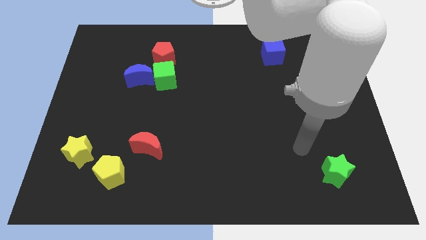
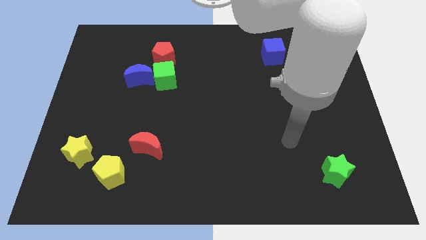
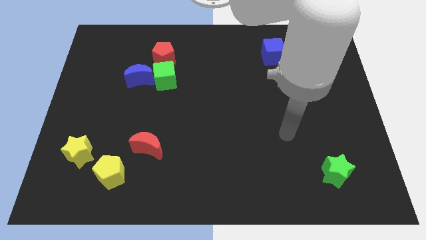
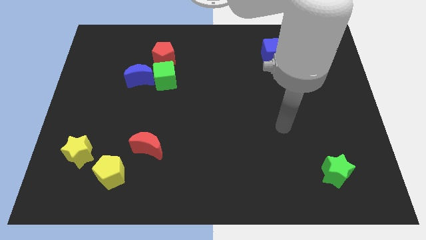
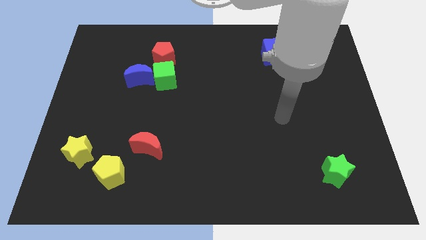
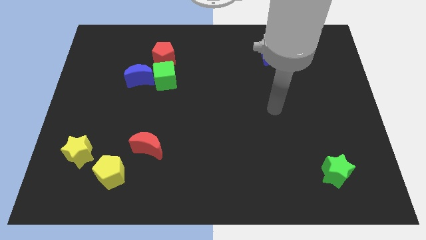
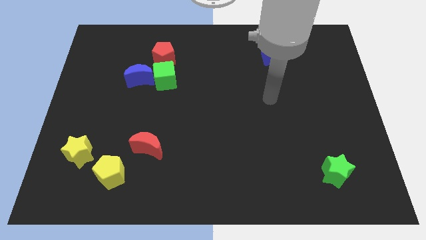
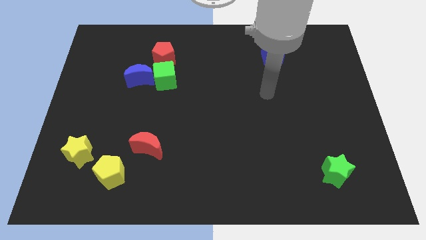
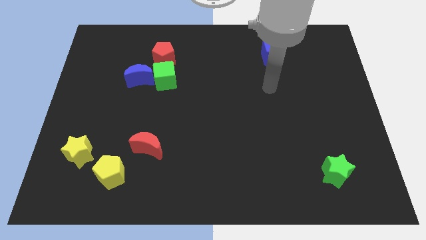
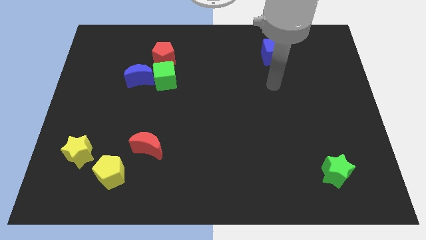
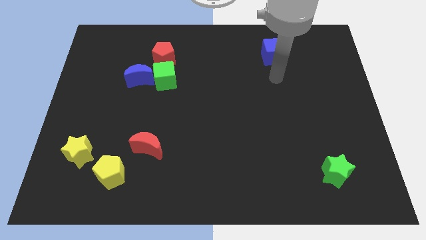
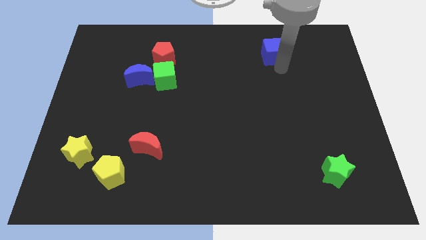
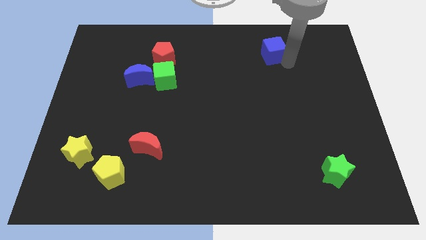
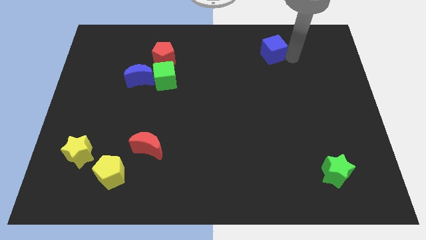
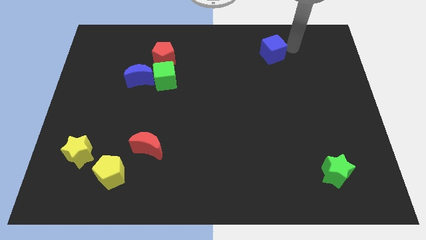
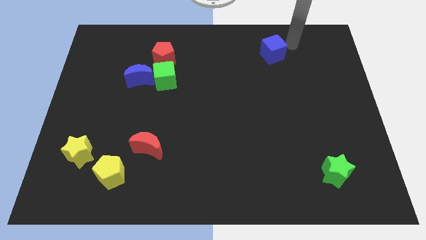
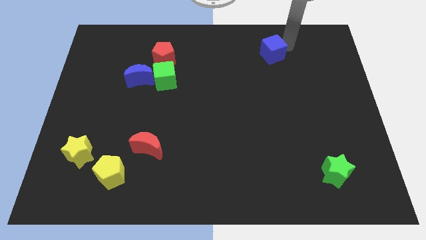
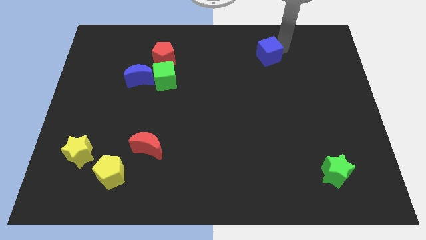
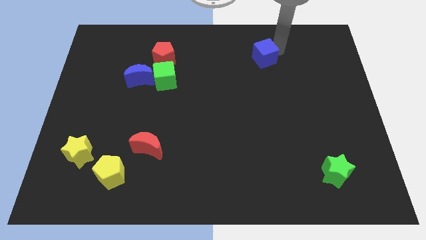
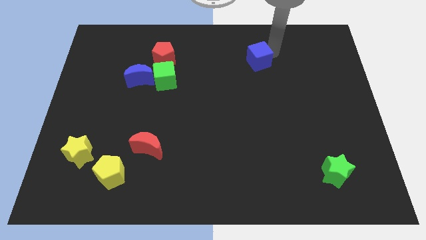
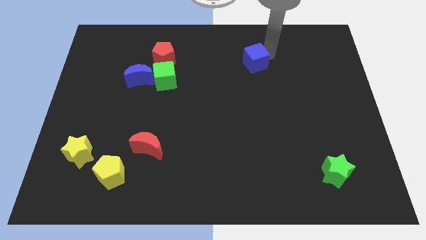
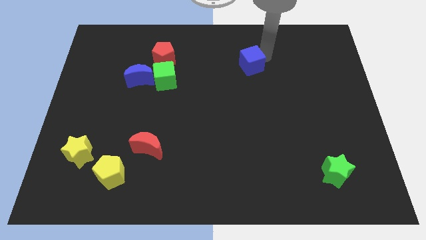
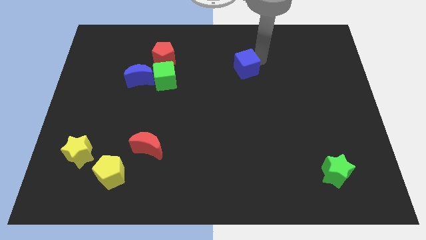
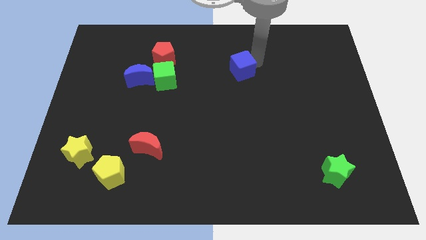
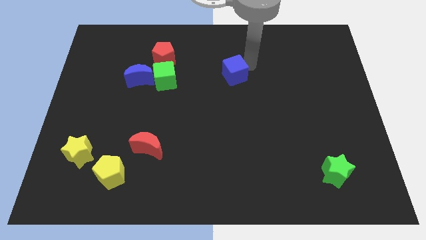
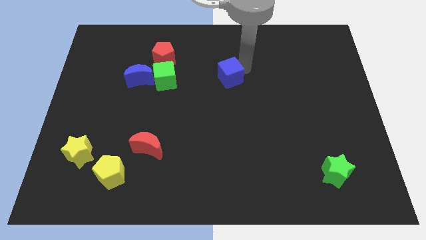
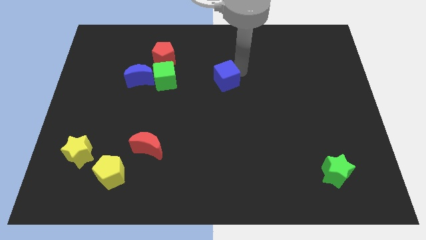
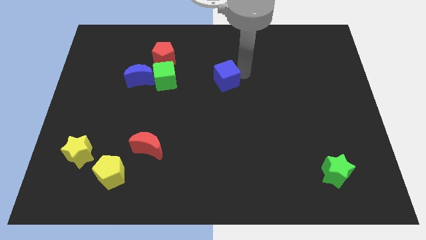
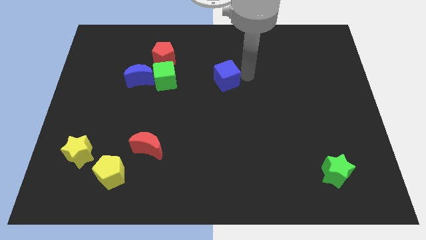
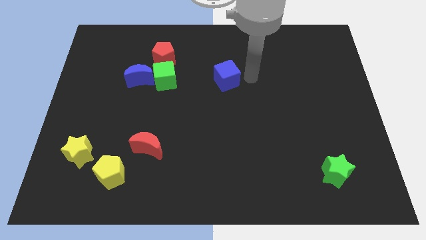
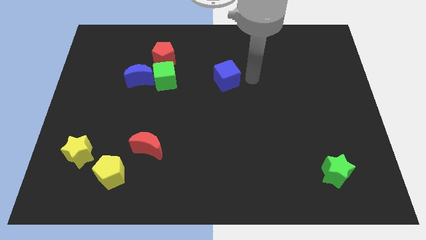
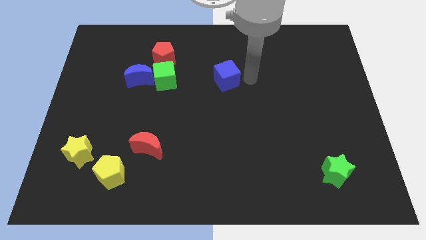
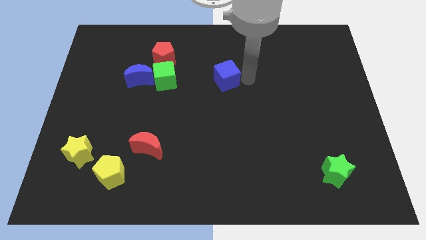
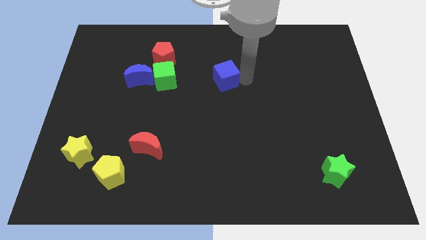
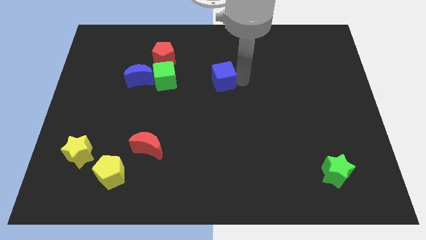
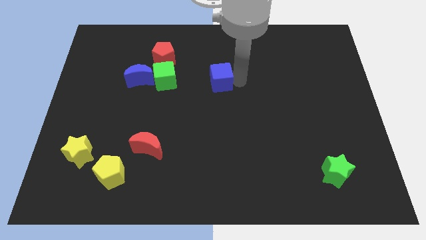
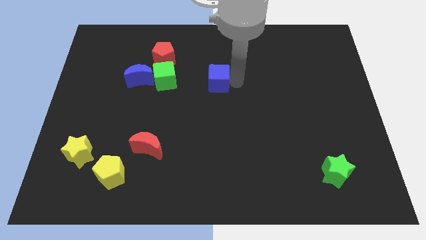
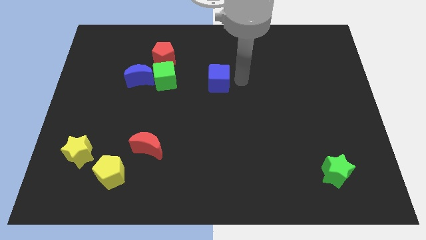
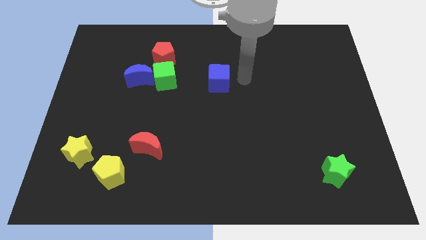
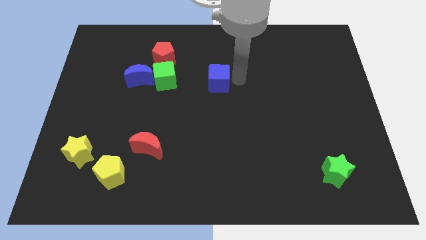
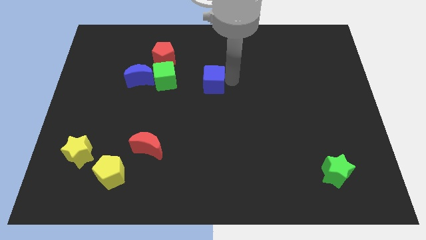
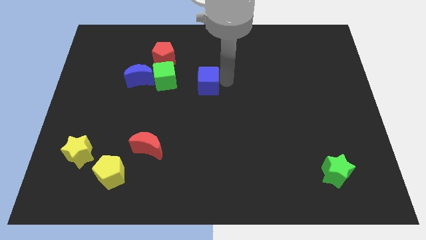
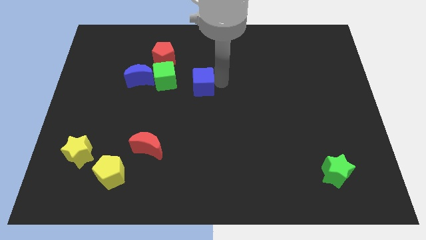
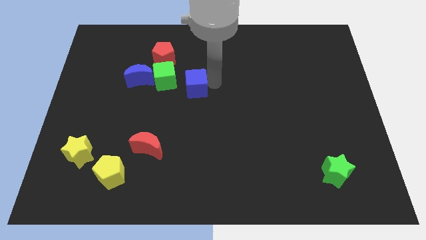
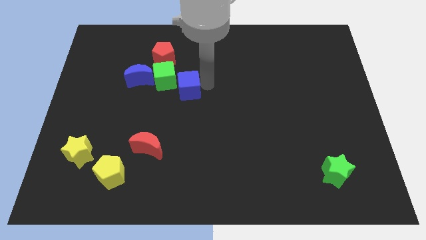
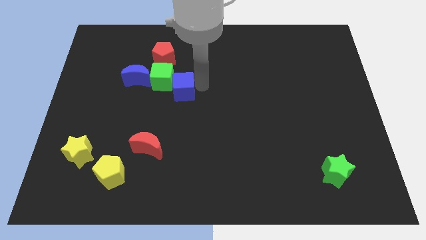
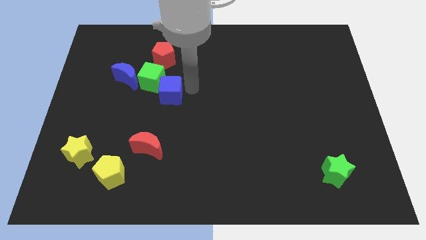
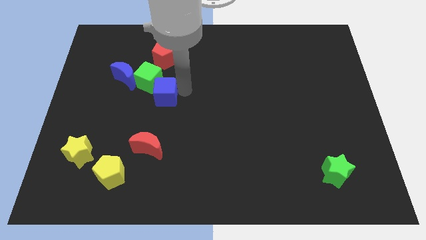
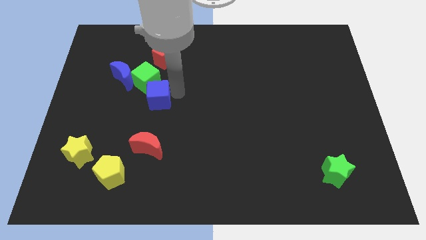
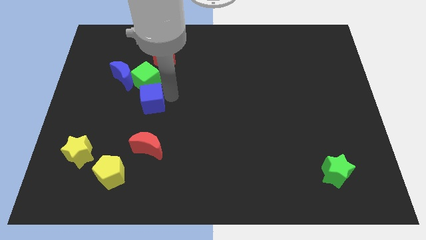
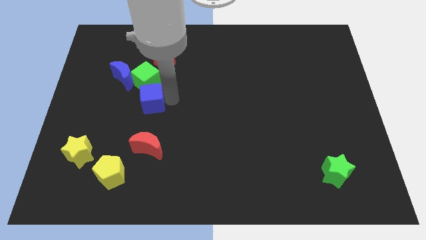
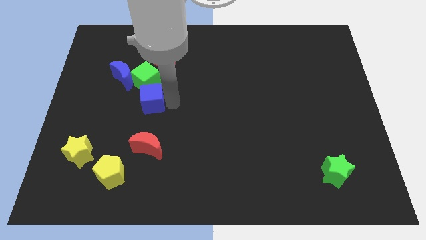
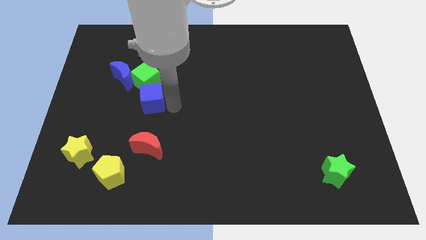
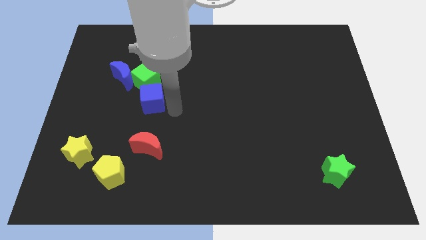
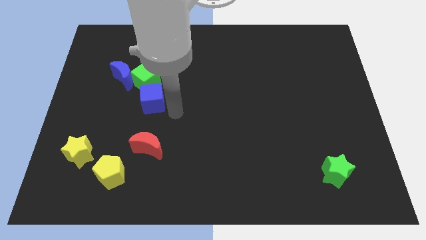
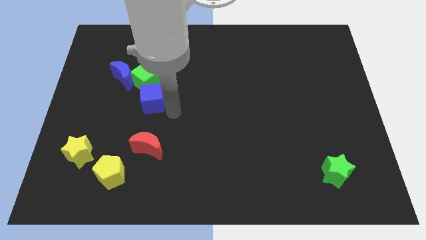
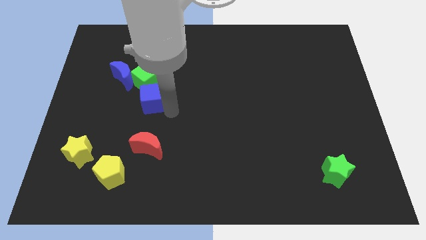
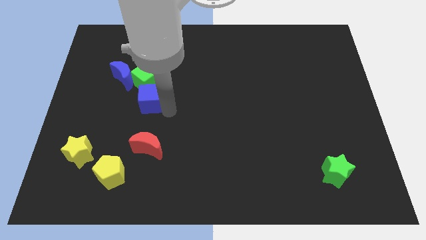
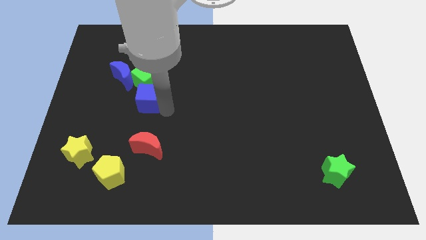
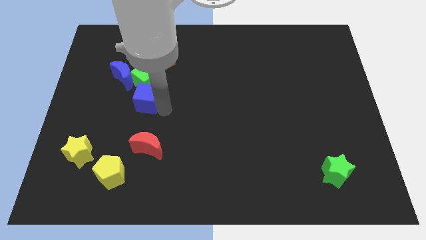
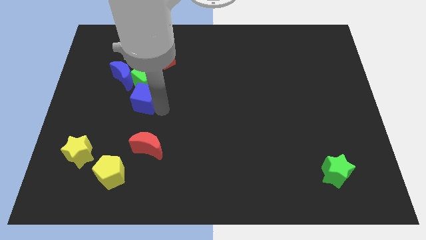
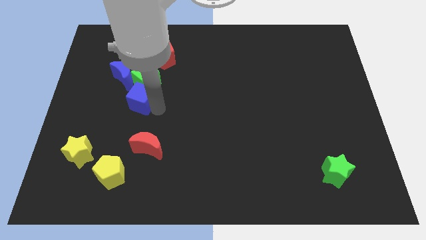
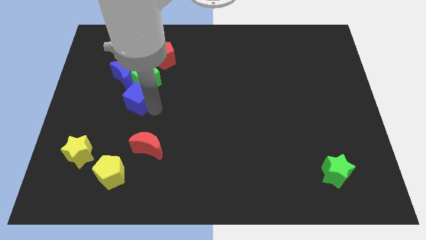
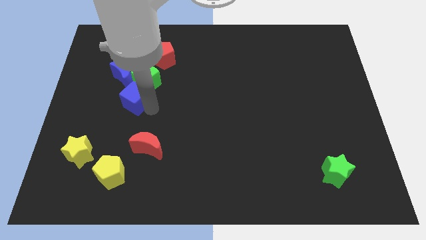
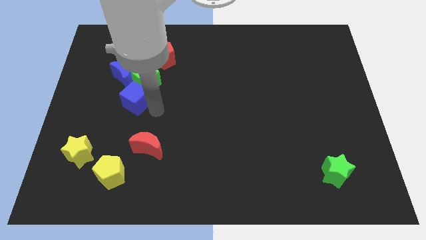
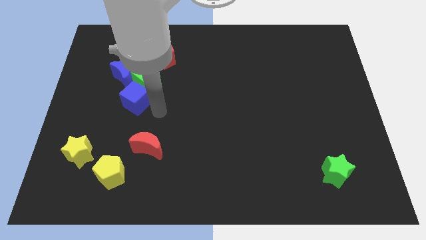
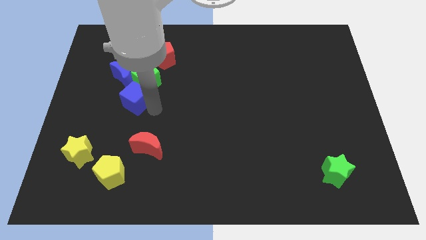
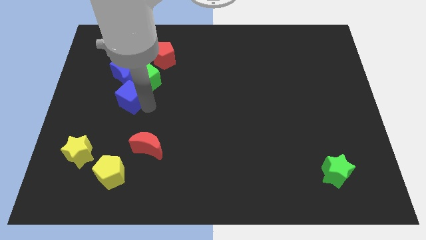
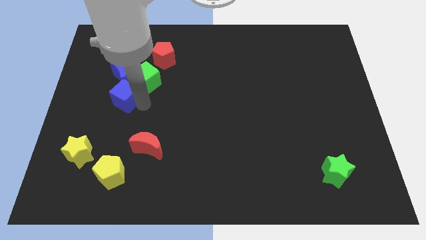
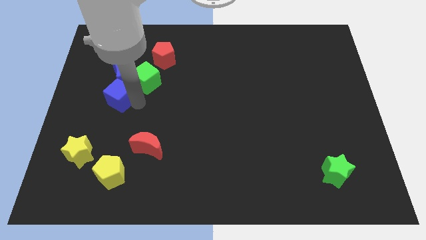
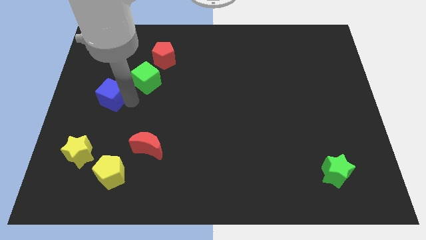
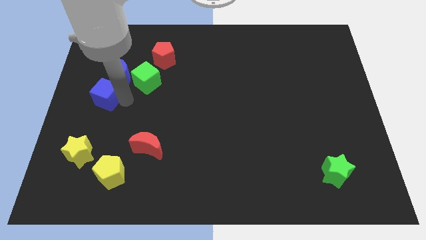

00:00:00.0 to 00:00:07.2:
push the blue cube to the center left
